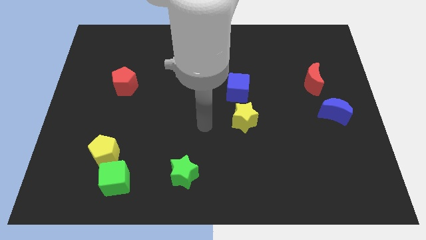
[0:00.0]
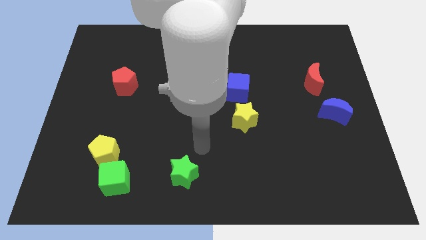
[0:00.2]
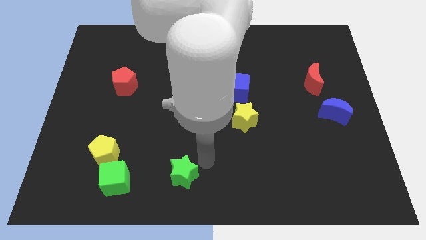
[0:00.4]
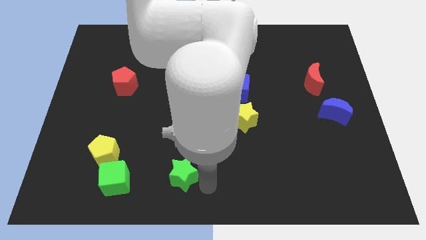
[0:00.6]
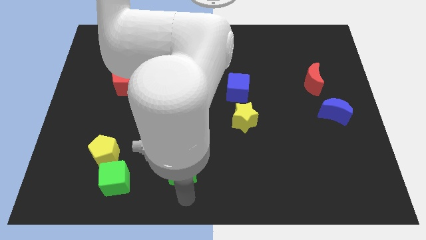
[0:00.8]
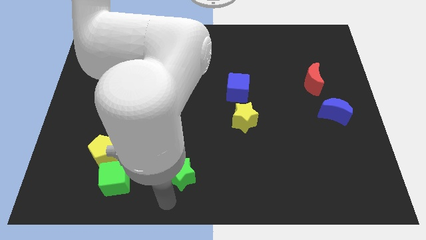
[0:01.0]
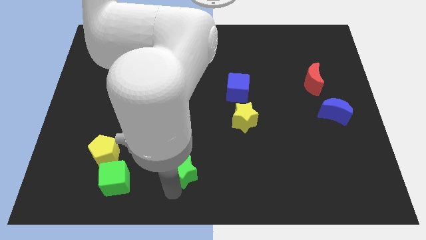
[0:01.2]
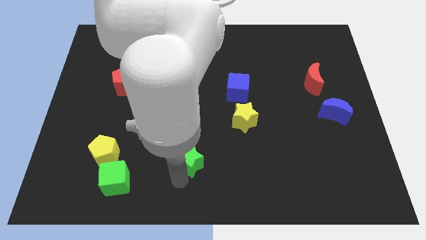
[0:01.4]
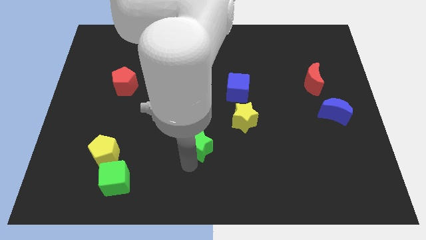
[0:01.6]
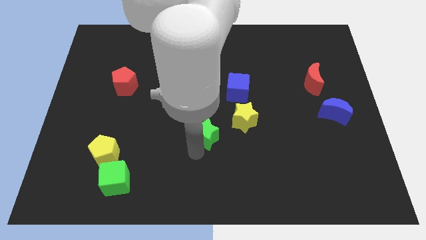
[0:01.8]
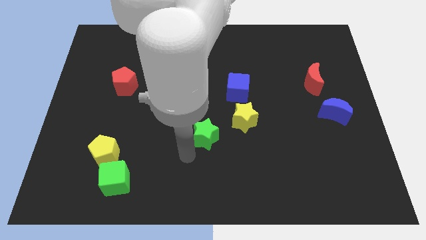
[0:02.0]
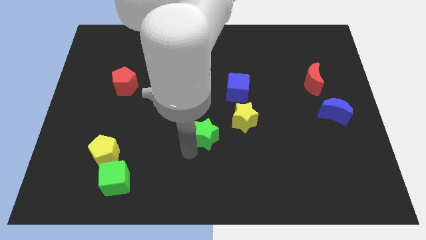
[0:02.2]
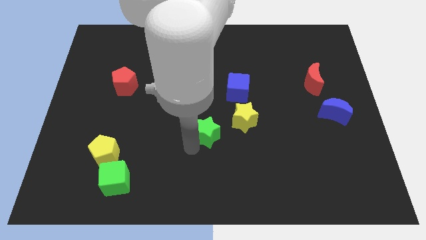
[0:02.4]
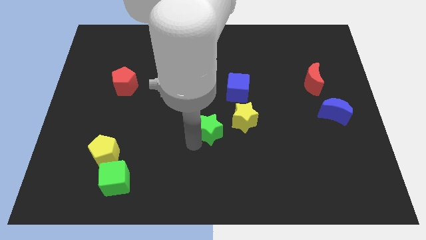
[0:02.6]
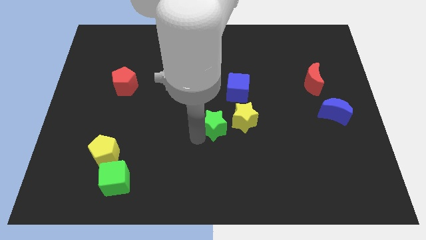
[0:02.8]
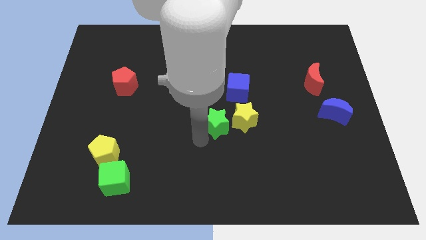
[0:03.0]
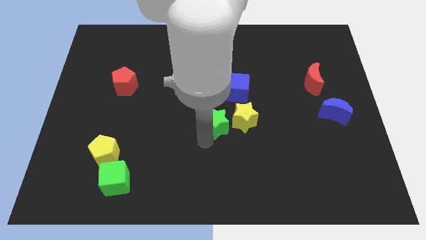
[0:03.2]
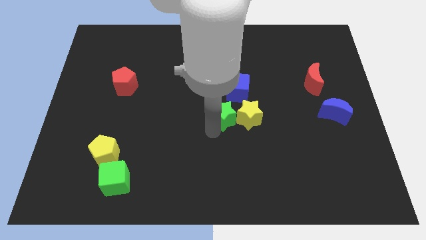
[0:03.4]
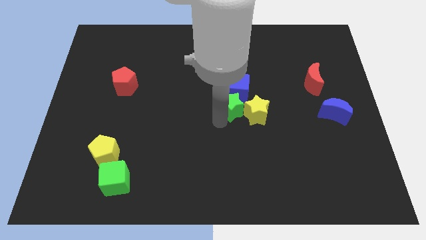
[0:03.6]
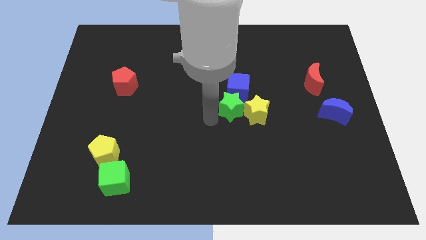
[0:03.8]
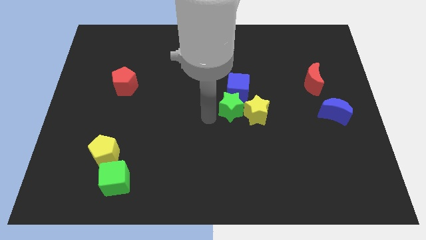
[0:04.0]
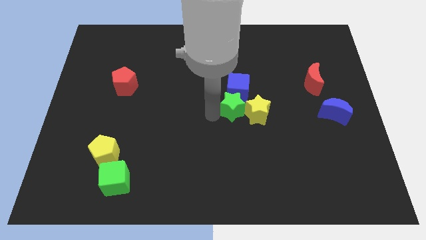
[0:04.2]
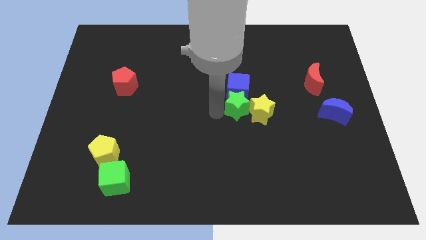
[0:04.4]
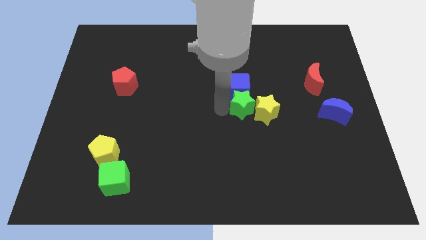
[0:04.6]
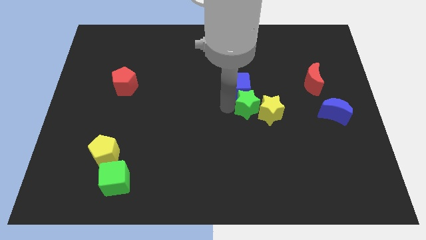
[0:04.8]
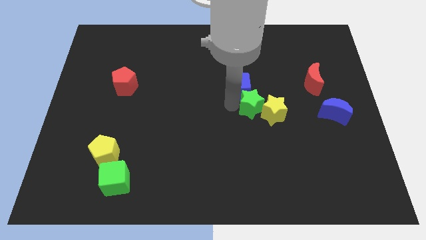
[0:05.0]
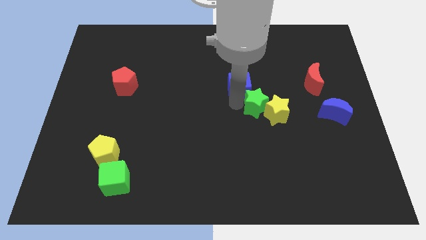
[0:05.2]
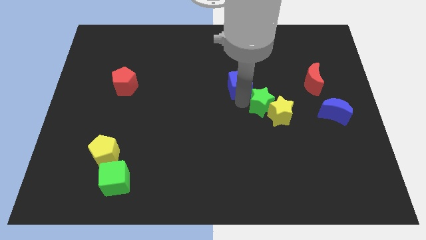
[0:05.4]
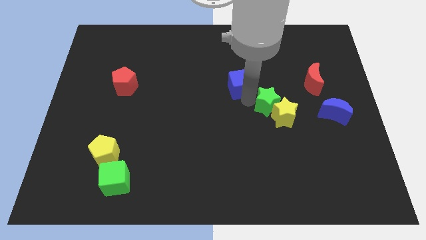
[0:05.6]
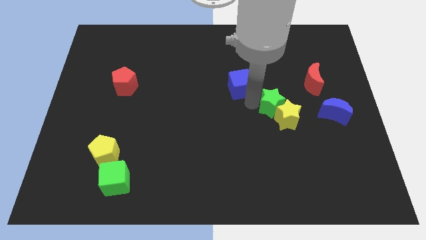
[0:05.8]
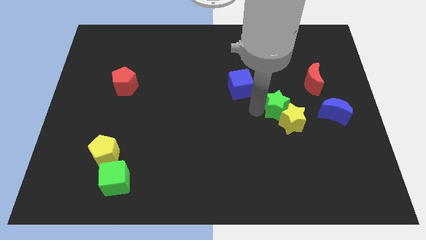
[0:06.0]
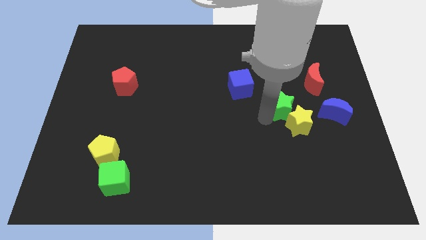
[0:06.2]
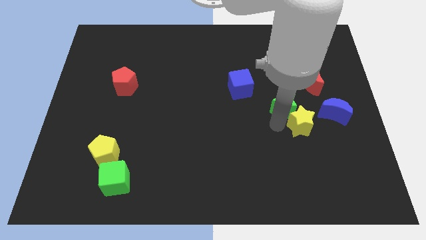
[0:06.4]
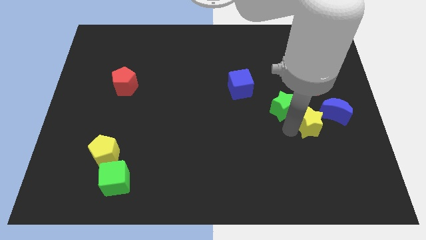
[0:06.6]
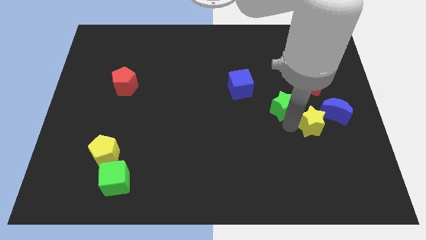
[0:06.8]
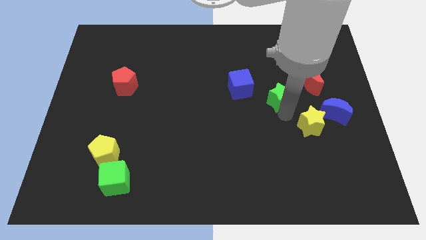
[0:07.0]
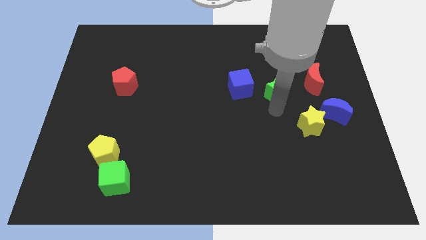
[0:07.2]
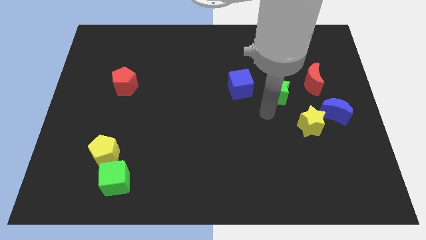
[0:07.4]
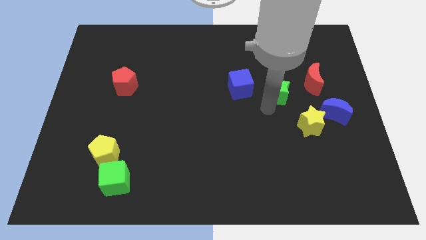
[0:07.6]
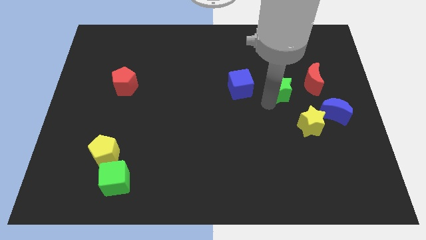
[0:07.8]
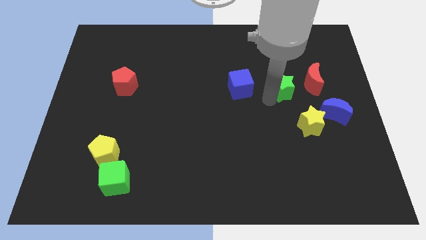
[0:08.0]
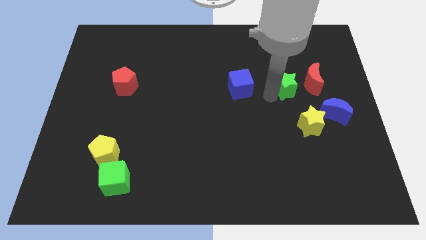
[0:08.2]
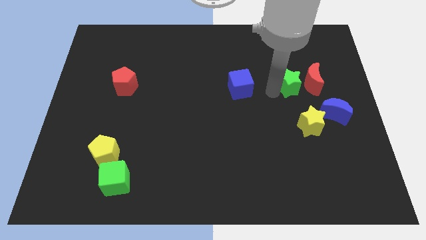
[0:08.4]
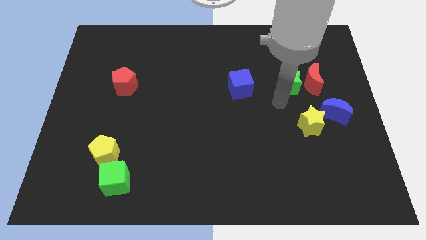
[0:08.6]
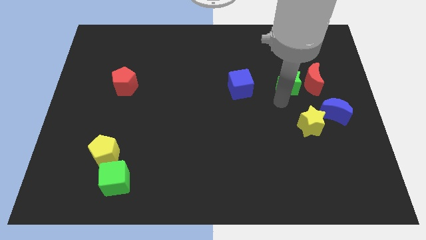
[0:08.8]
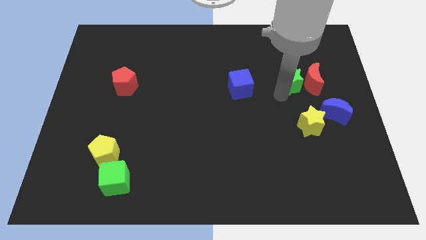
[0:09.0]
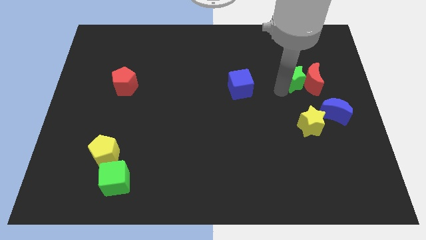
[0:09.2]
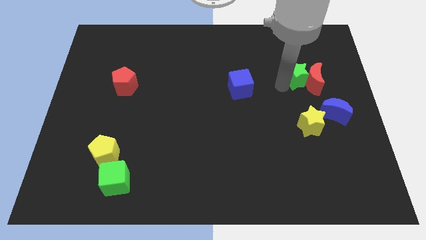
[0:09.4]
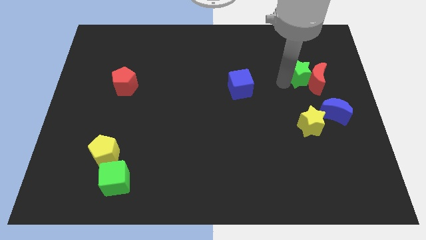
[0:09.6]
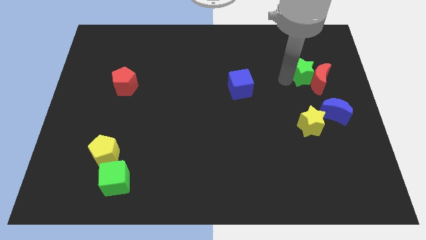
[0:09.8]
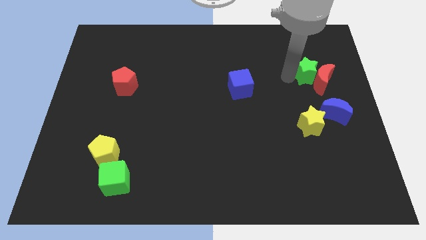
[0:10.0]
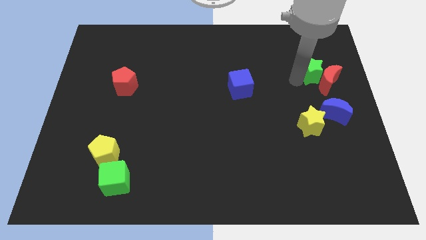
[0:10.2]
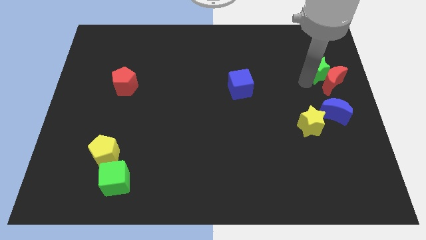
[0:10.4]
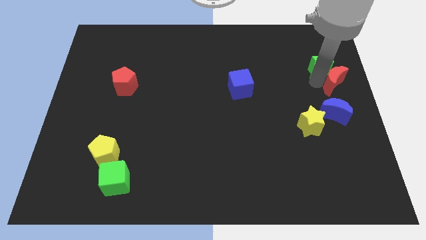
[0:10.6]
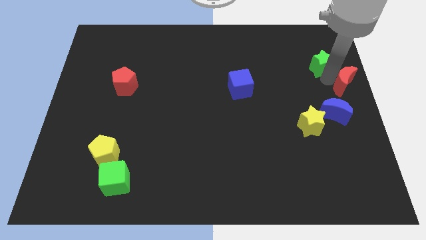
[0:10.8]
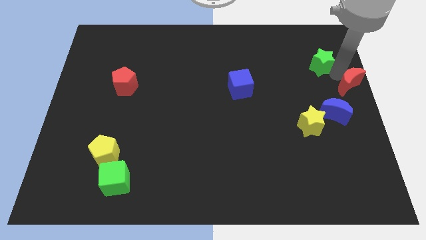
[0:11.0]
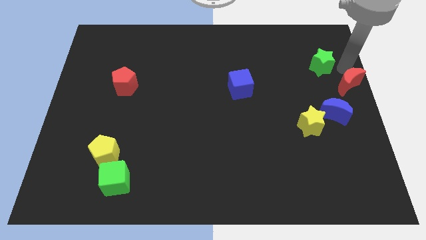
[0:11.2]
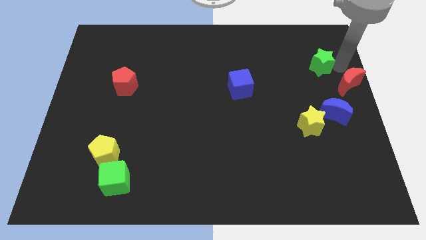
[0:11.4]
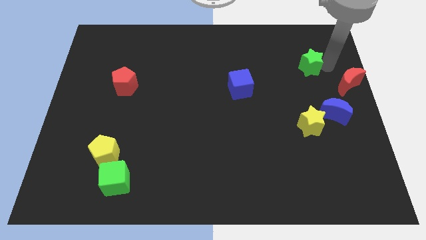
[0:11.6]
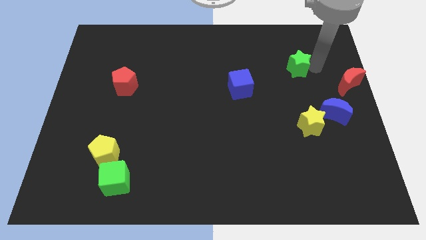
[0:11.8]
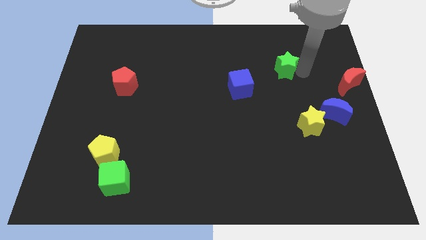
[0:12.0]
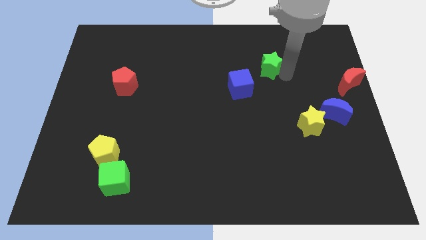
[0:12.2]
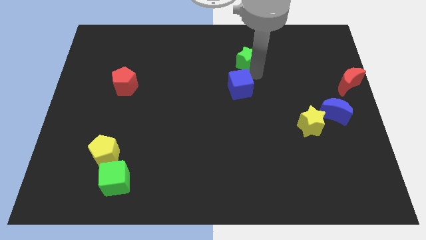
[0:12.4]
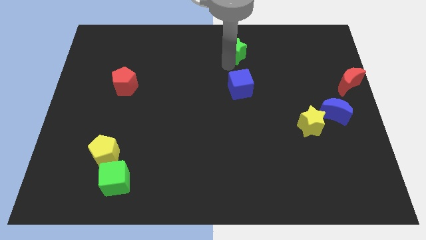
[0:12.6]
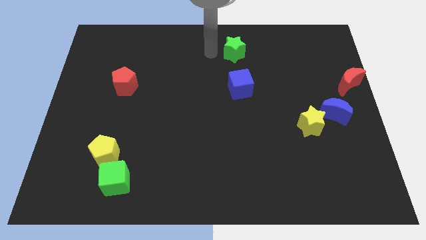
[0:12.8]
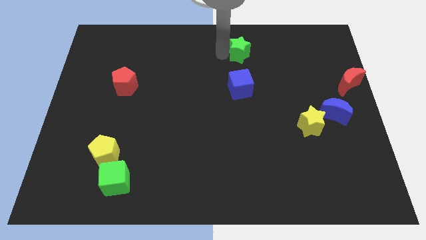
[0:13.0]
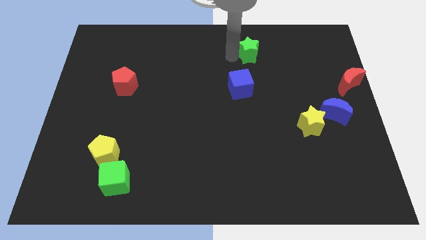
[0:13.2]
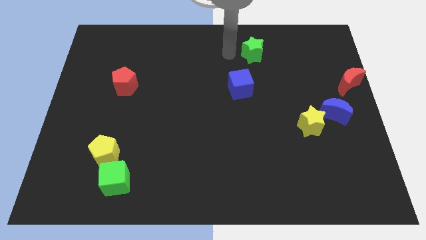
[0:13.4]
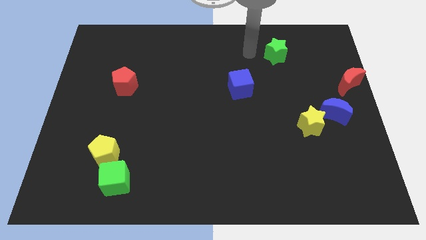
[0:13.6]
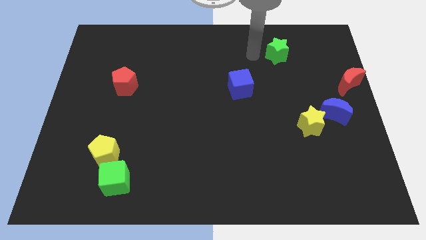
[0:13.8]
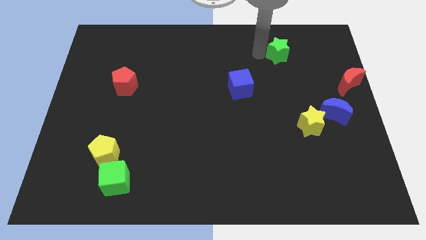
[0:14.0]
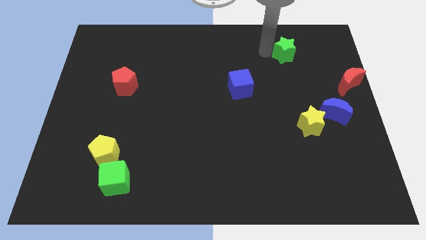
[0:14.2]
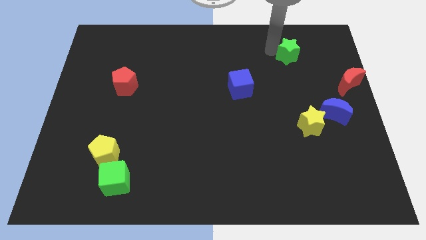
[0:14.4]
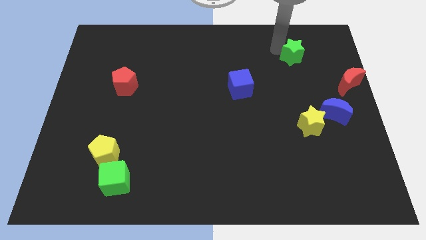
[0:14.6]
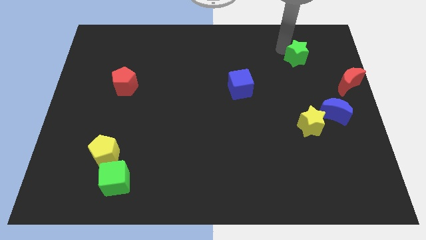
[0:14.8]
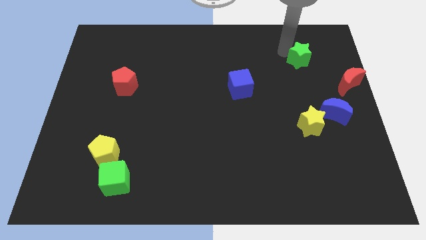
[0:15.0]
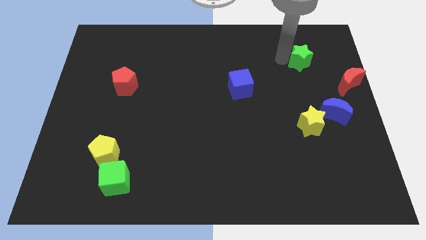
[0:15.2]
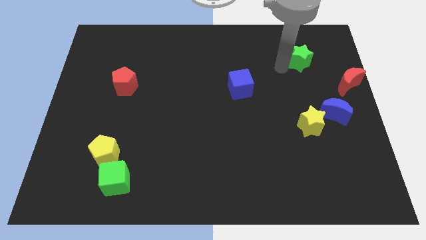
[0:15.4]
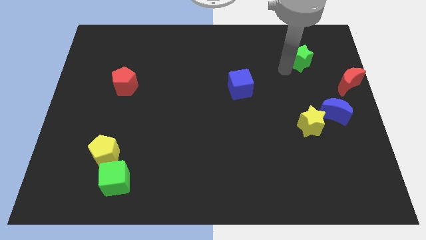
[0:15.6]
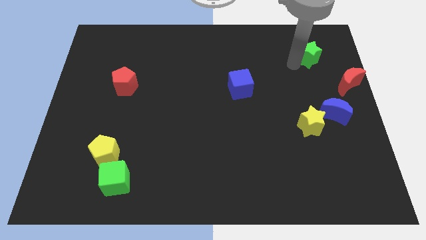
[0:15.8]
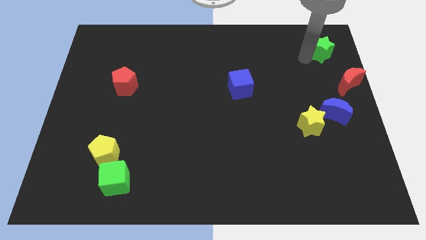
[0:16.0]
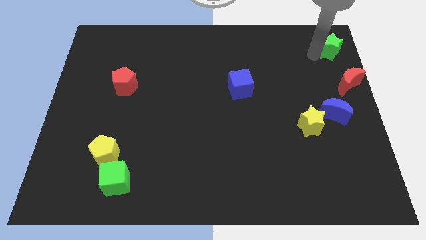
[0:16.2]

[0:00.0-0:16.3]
move the green star to the top right of the board
